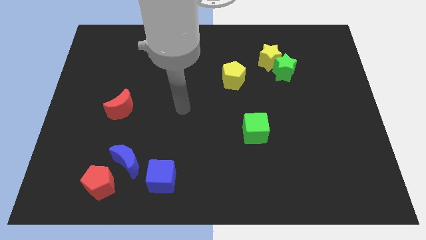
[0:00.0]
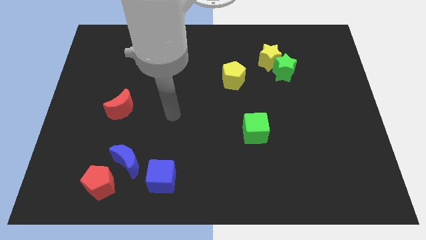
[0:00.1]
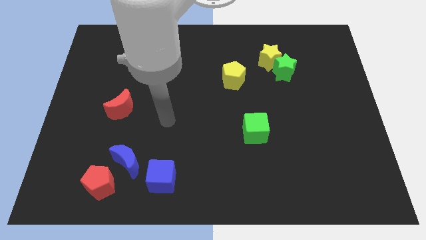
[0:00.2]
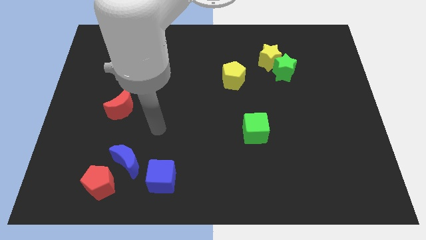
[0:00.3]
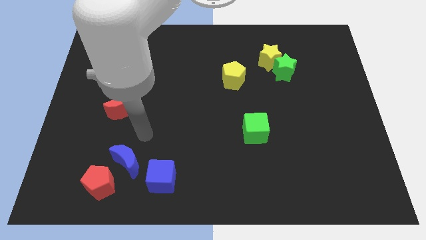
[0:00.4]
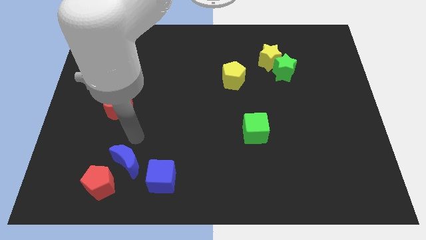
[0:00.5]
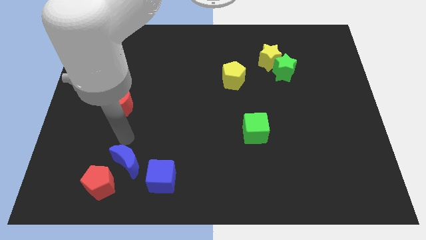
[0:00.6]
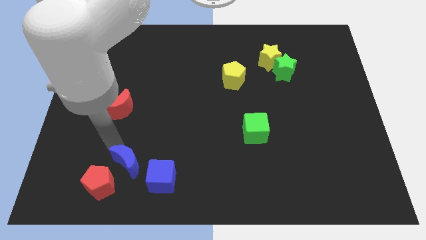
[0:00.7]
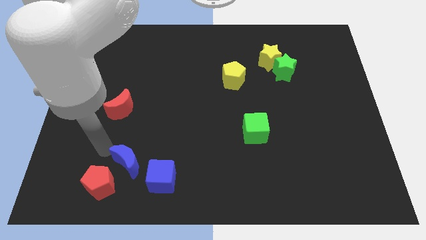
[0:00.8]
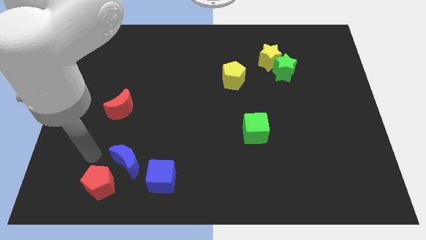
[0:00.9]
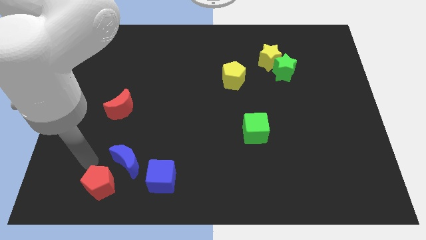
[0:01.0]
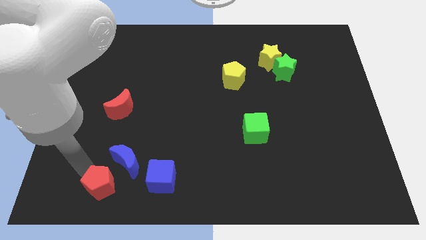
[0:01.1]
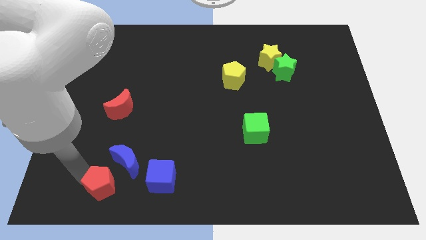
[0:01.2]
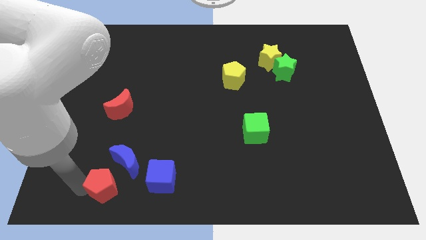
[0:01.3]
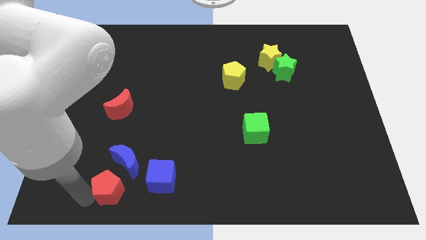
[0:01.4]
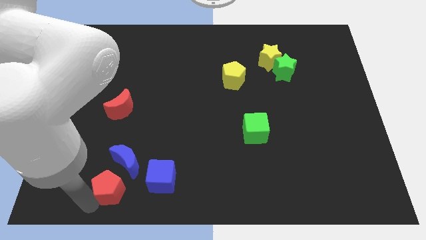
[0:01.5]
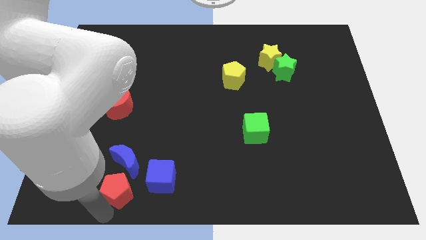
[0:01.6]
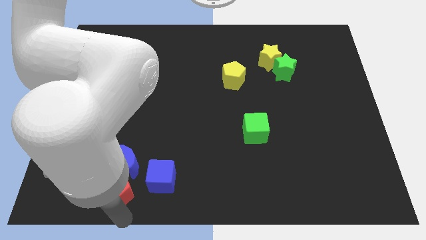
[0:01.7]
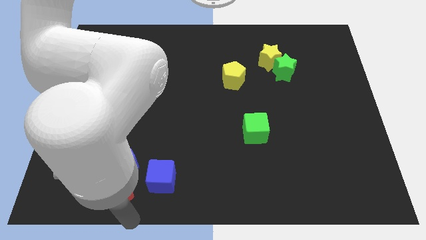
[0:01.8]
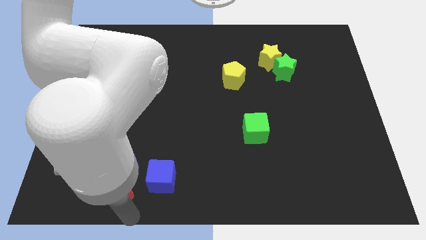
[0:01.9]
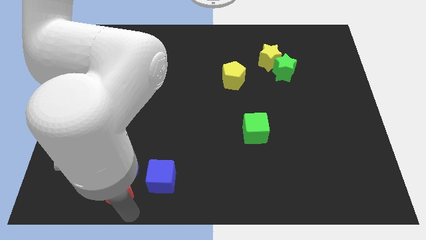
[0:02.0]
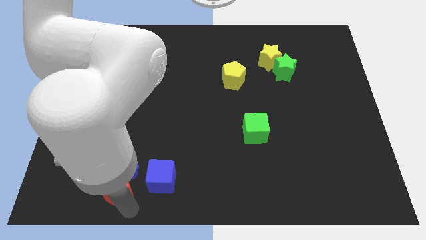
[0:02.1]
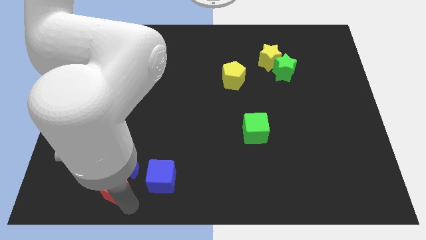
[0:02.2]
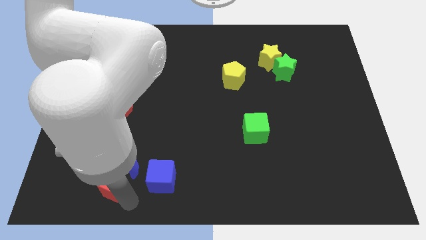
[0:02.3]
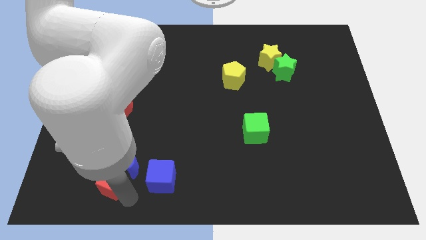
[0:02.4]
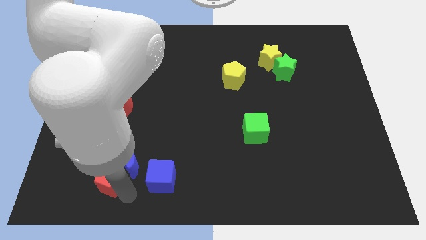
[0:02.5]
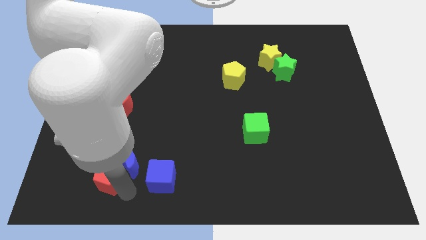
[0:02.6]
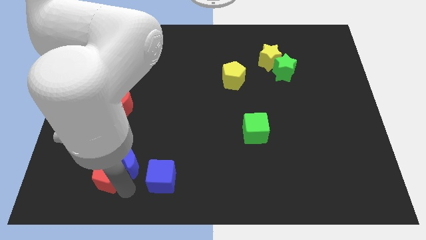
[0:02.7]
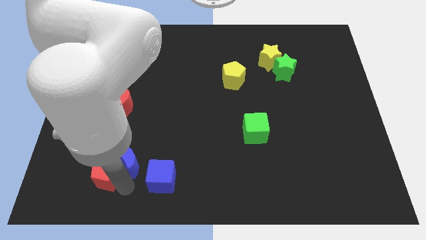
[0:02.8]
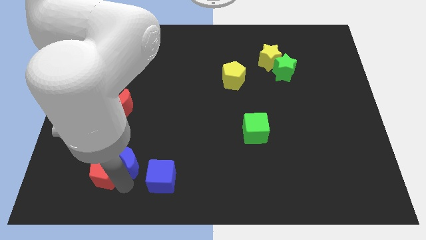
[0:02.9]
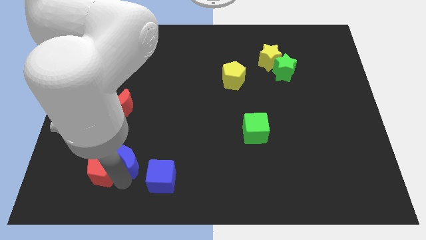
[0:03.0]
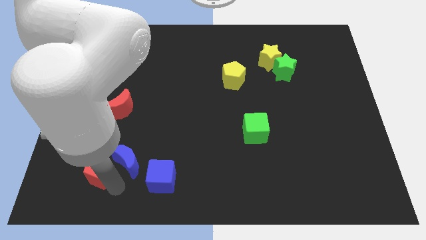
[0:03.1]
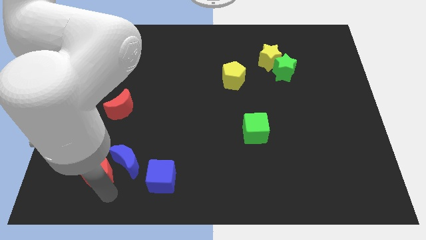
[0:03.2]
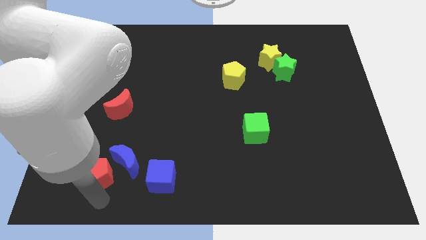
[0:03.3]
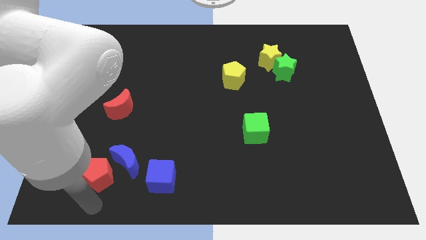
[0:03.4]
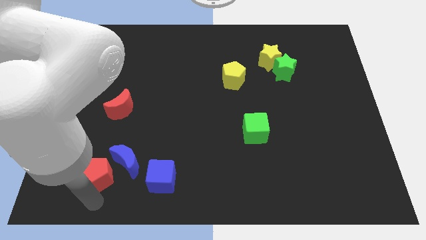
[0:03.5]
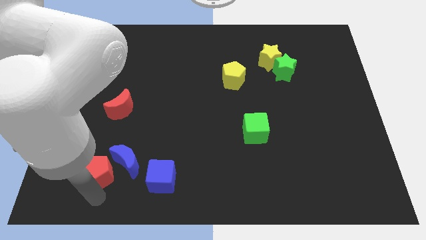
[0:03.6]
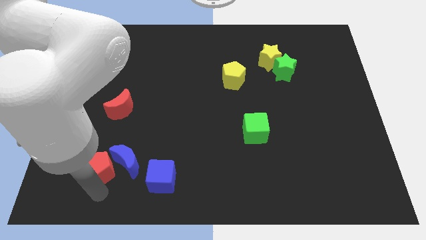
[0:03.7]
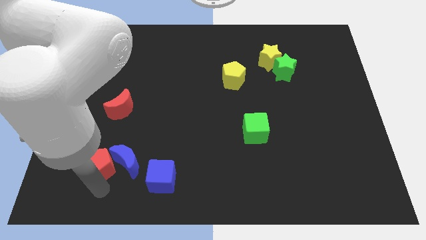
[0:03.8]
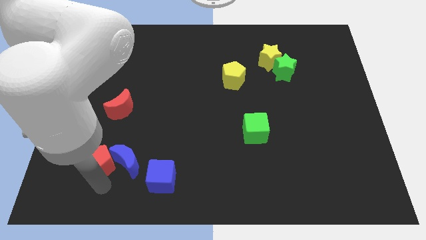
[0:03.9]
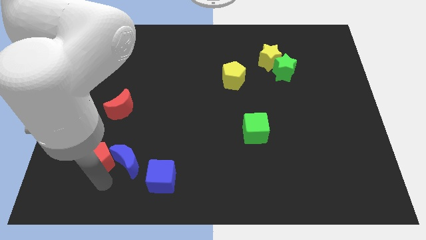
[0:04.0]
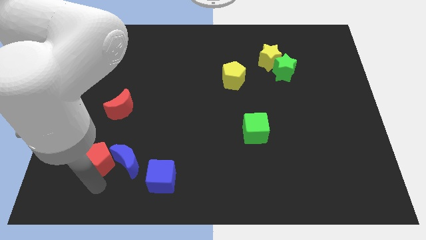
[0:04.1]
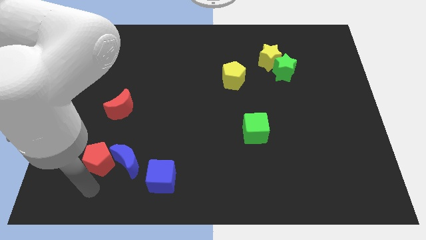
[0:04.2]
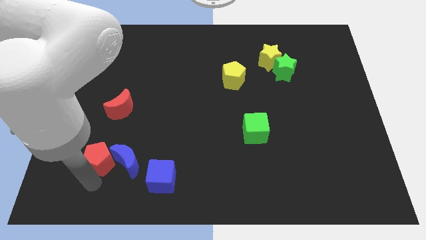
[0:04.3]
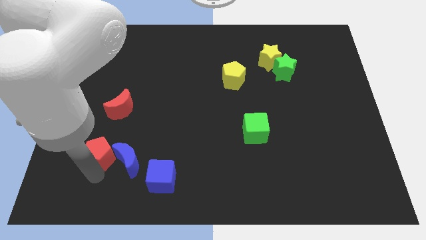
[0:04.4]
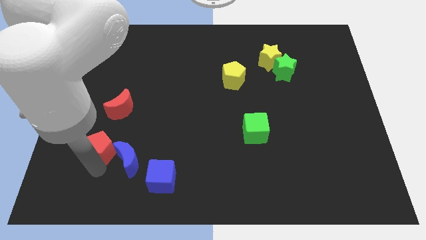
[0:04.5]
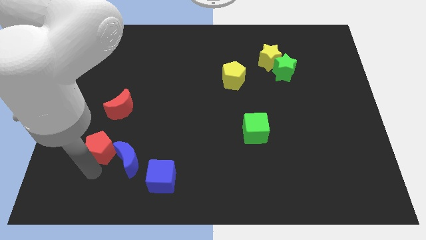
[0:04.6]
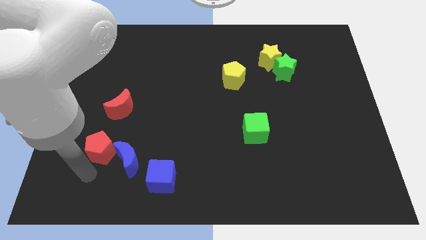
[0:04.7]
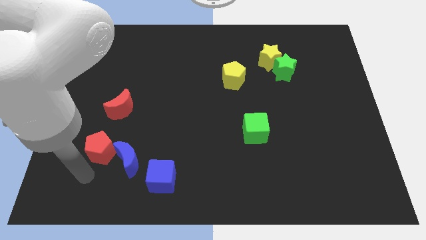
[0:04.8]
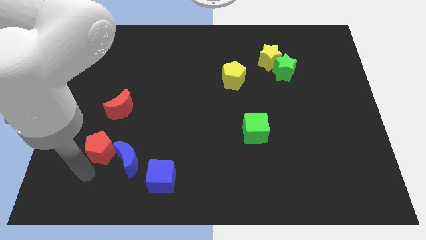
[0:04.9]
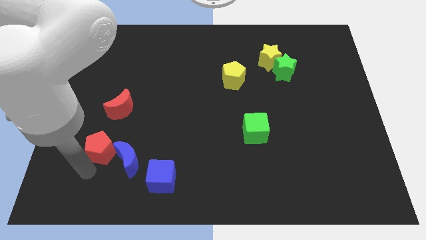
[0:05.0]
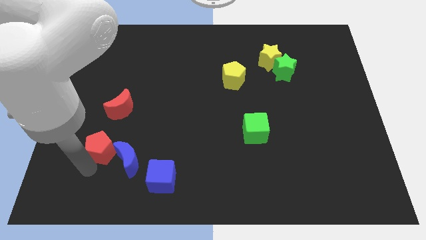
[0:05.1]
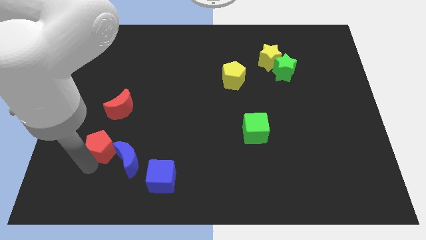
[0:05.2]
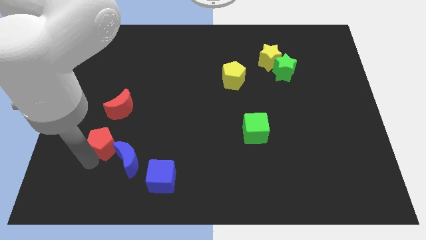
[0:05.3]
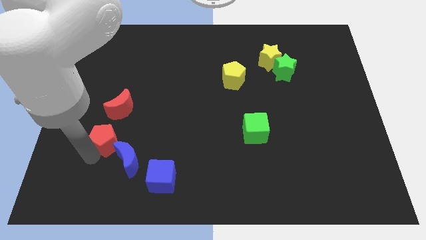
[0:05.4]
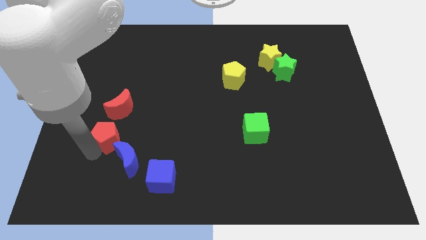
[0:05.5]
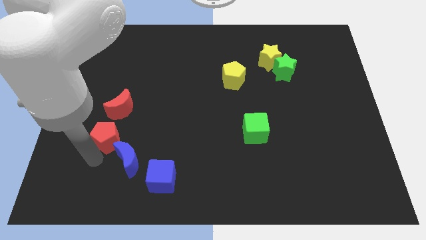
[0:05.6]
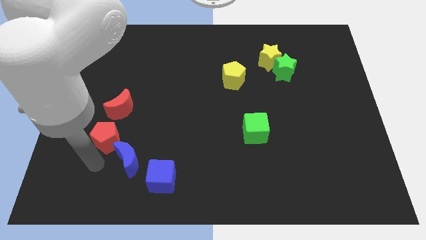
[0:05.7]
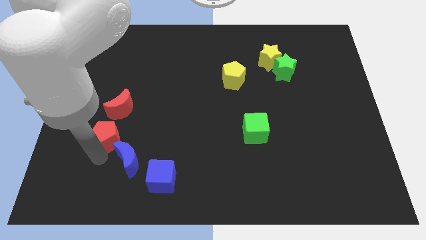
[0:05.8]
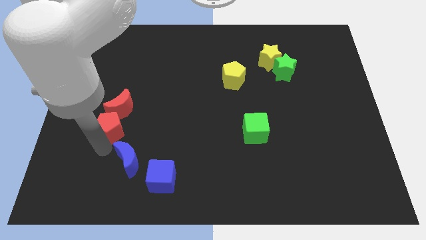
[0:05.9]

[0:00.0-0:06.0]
push the red pentagon next to the red moon

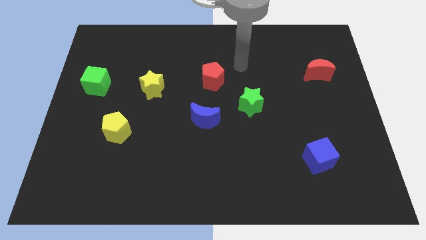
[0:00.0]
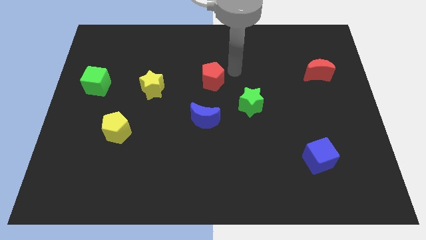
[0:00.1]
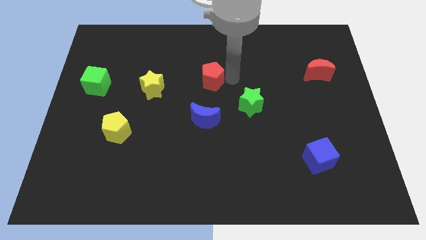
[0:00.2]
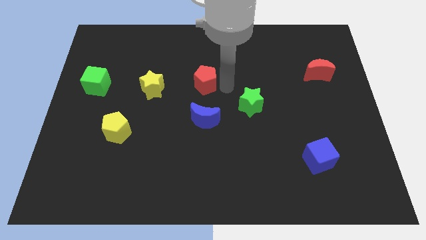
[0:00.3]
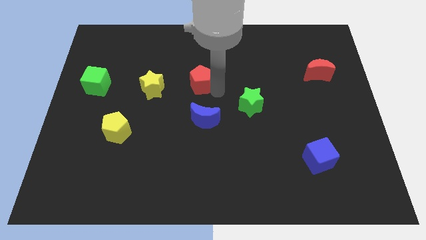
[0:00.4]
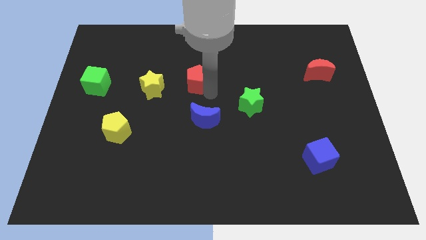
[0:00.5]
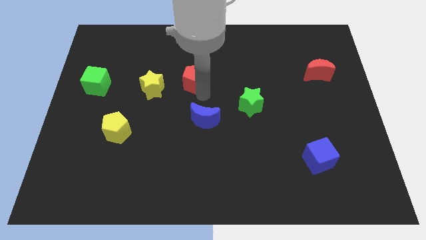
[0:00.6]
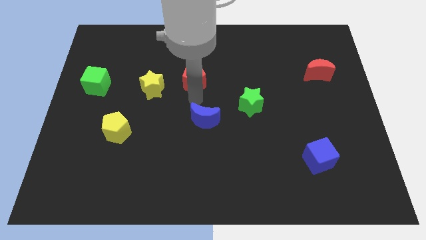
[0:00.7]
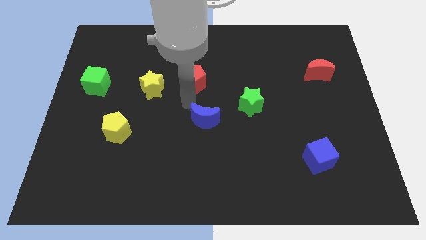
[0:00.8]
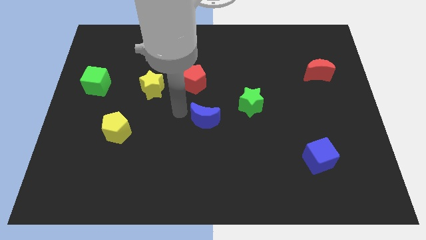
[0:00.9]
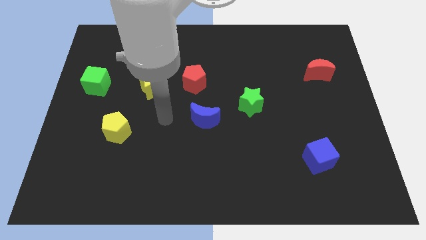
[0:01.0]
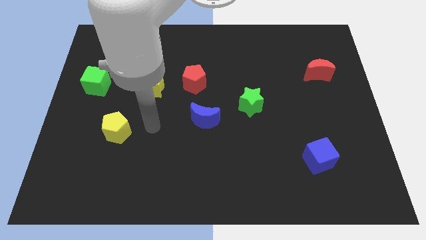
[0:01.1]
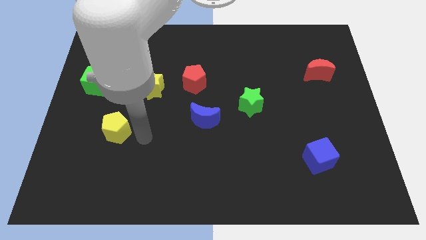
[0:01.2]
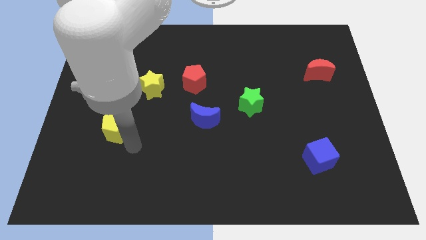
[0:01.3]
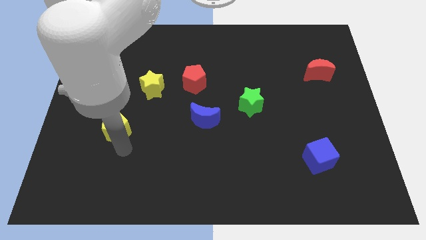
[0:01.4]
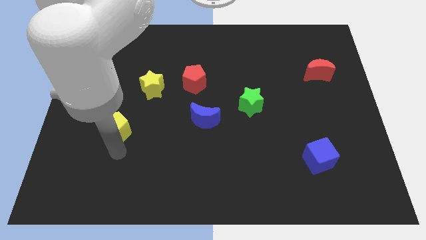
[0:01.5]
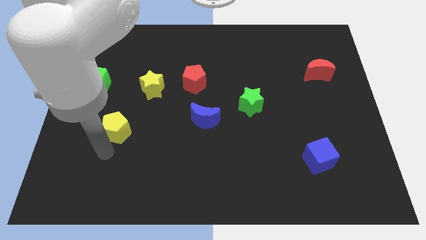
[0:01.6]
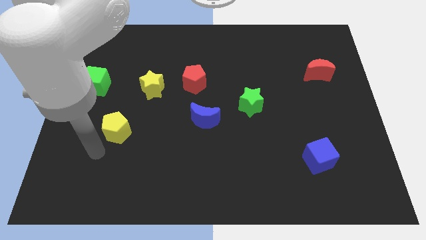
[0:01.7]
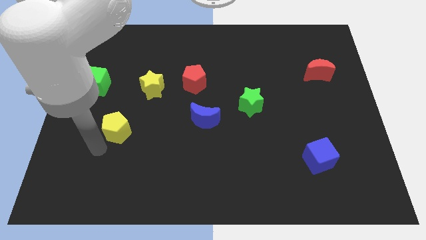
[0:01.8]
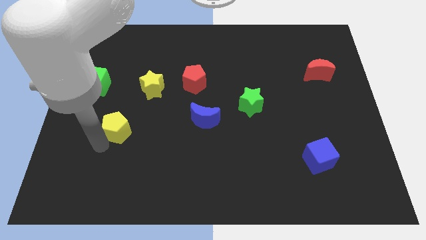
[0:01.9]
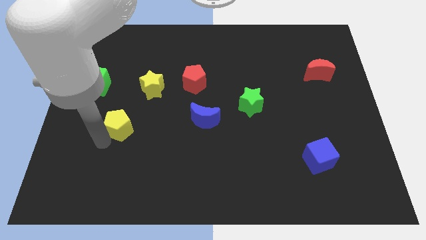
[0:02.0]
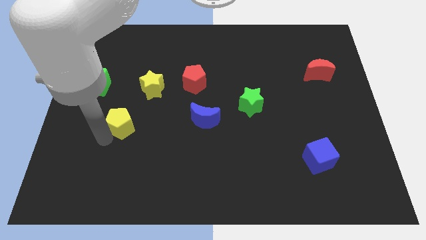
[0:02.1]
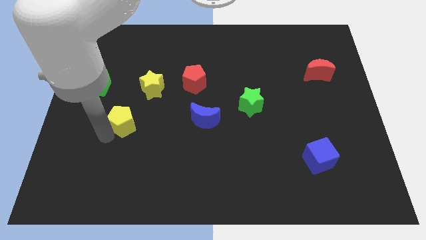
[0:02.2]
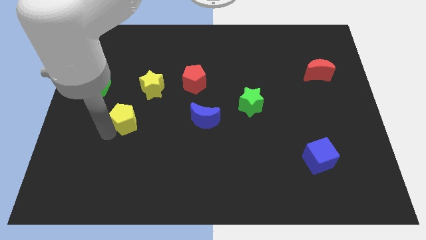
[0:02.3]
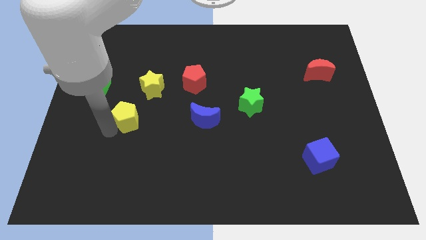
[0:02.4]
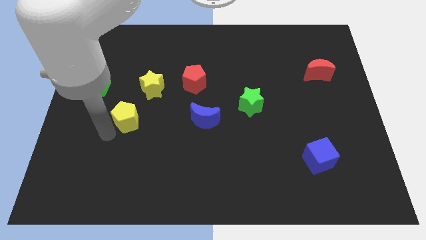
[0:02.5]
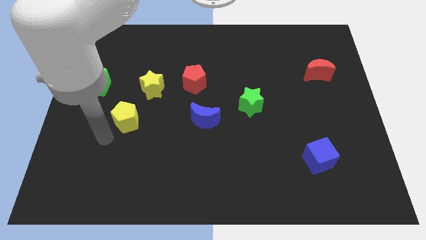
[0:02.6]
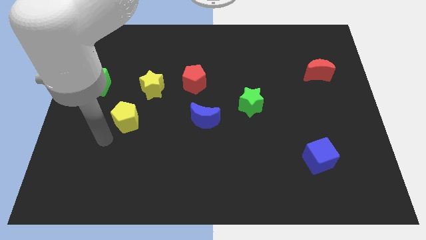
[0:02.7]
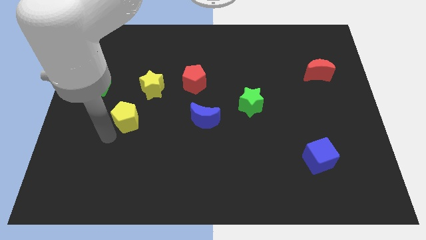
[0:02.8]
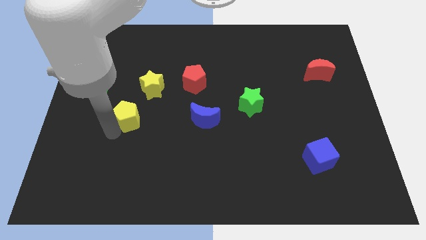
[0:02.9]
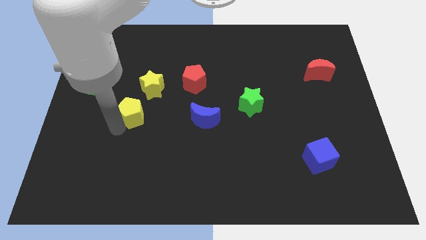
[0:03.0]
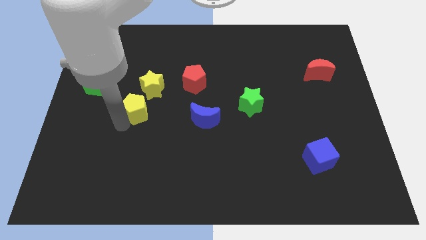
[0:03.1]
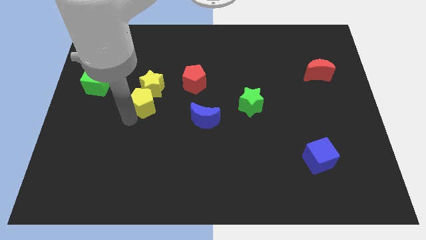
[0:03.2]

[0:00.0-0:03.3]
move the yellow pentagon close to the yellow star
